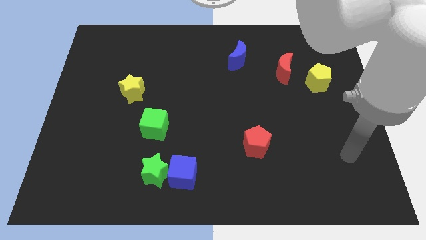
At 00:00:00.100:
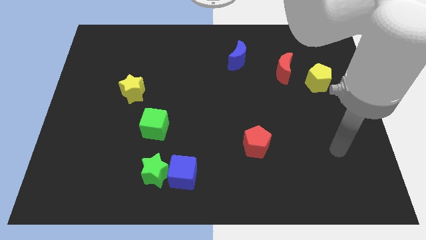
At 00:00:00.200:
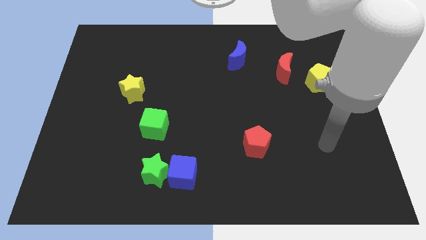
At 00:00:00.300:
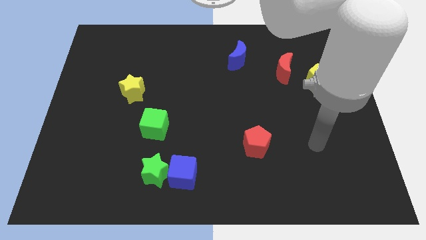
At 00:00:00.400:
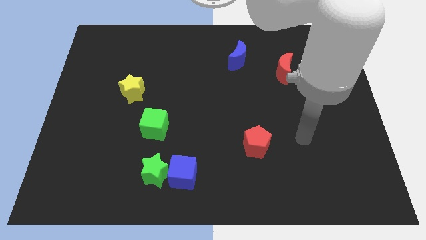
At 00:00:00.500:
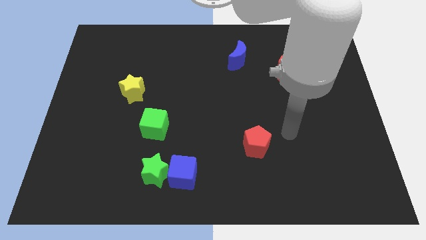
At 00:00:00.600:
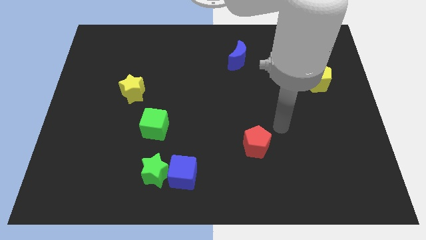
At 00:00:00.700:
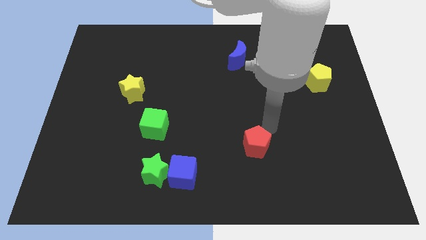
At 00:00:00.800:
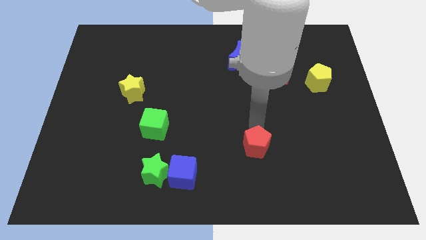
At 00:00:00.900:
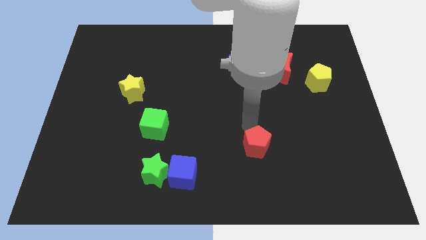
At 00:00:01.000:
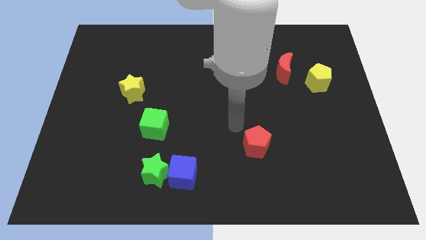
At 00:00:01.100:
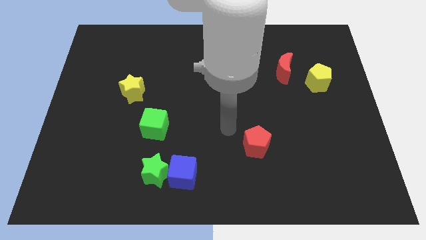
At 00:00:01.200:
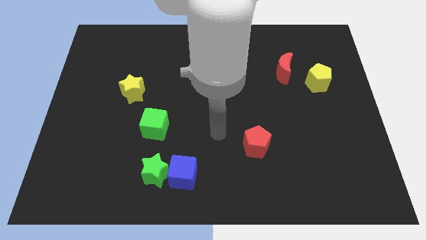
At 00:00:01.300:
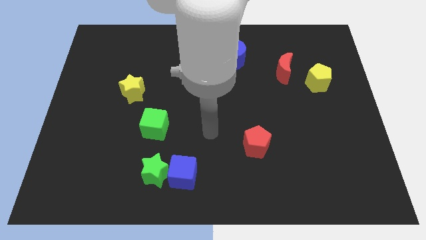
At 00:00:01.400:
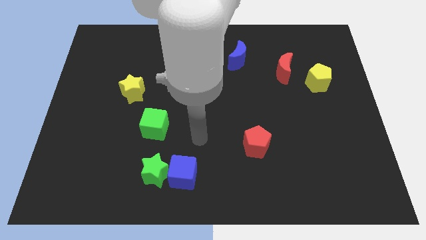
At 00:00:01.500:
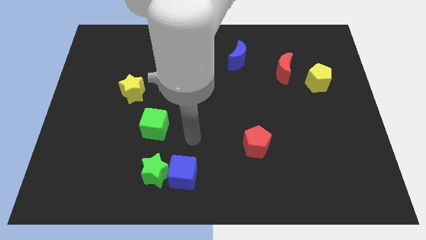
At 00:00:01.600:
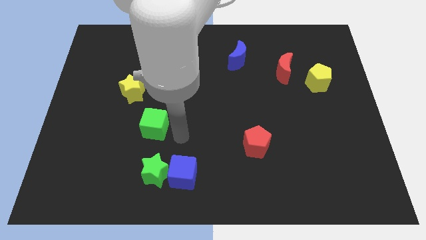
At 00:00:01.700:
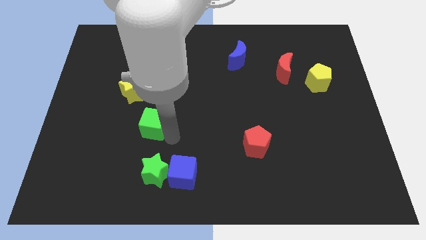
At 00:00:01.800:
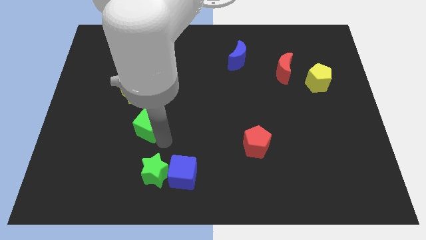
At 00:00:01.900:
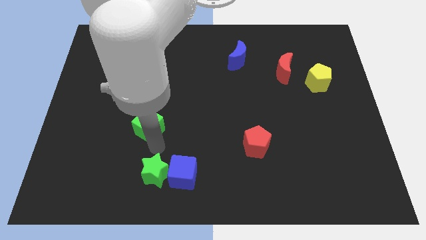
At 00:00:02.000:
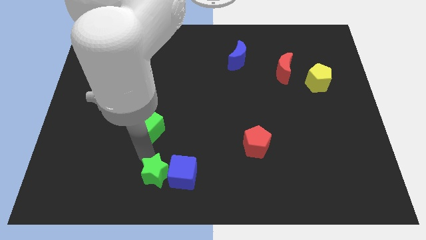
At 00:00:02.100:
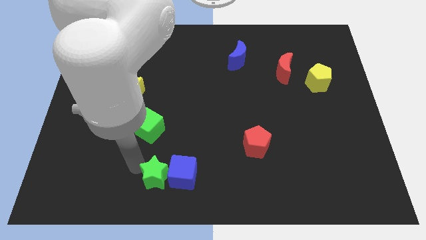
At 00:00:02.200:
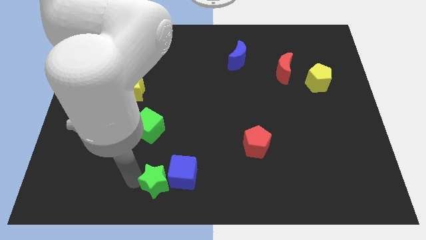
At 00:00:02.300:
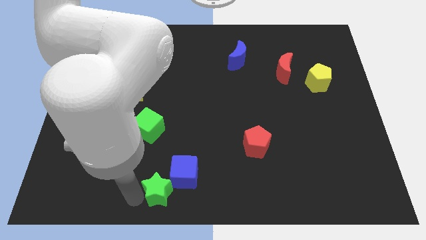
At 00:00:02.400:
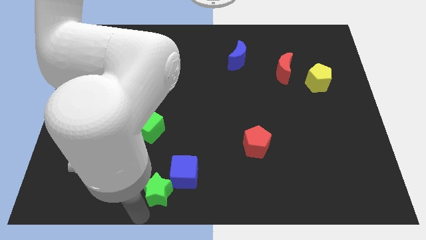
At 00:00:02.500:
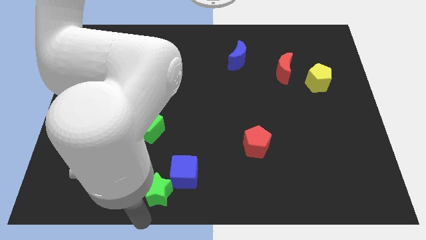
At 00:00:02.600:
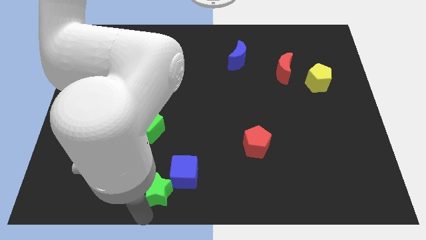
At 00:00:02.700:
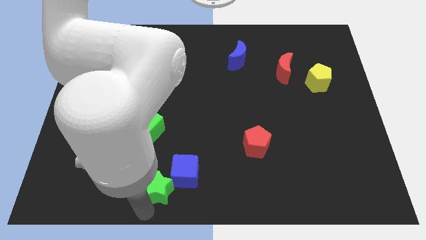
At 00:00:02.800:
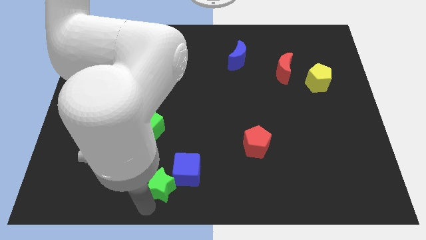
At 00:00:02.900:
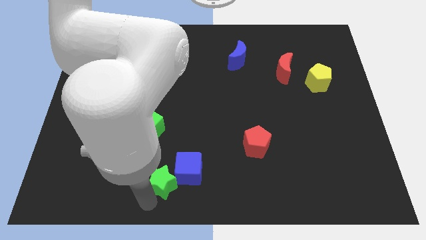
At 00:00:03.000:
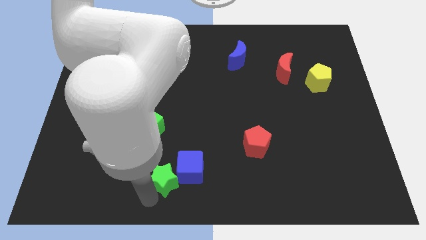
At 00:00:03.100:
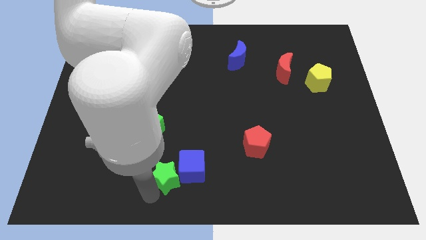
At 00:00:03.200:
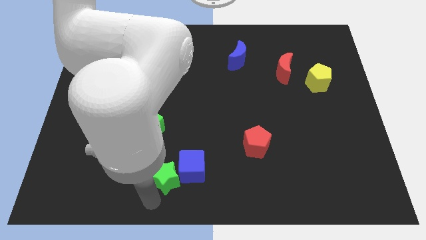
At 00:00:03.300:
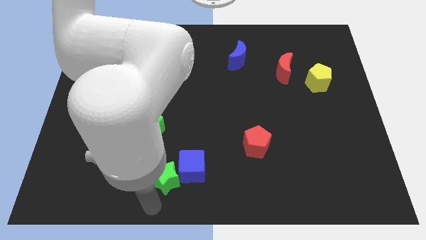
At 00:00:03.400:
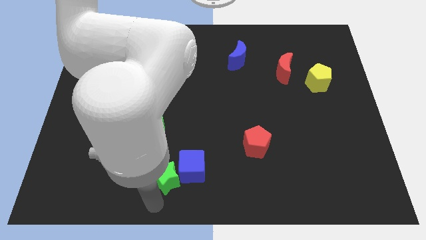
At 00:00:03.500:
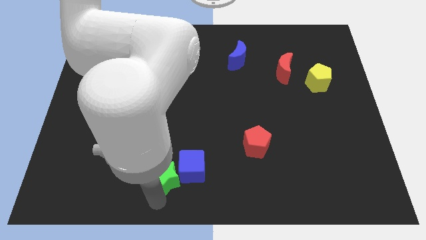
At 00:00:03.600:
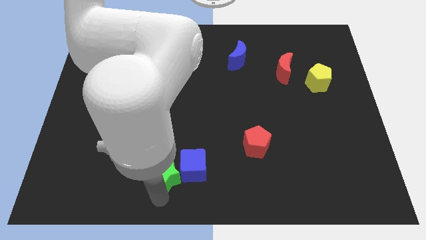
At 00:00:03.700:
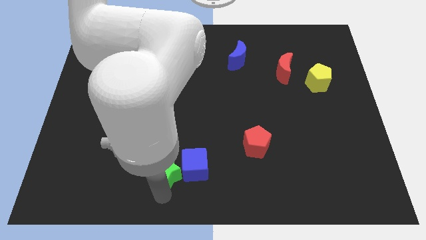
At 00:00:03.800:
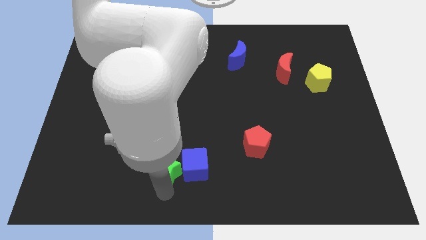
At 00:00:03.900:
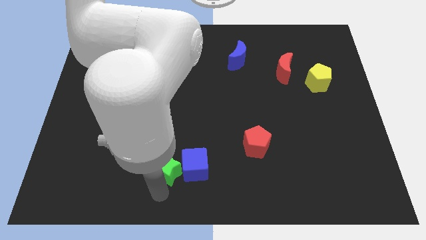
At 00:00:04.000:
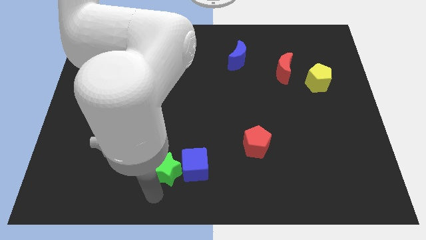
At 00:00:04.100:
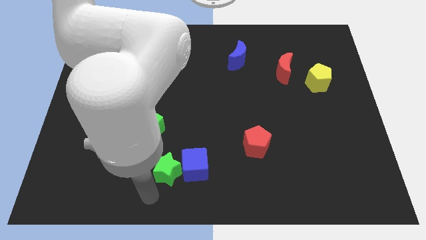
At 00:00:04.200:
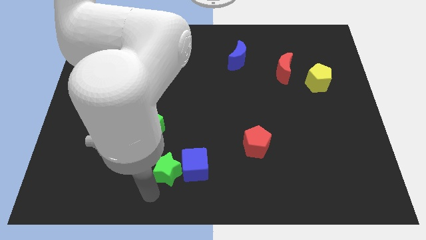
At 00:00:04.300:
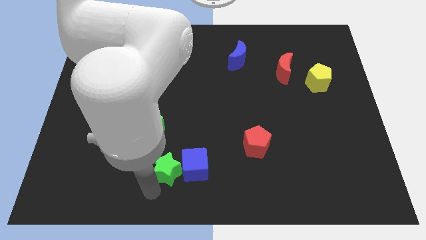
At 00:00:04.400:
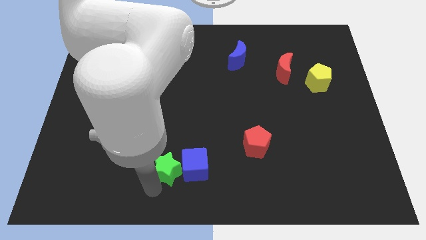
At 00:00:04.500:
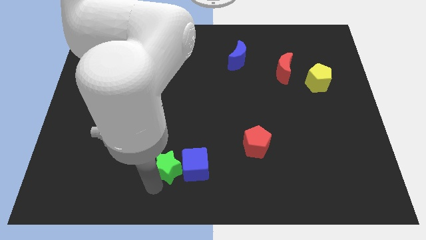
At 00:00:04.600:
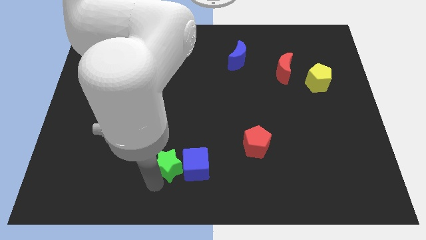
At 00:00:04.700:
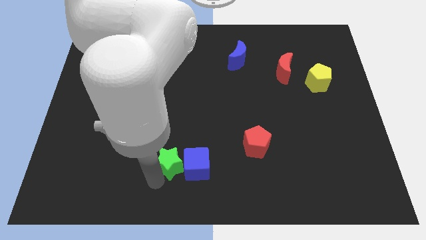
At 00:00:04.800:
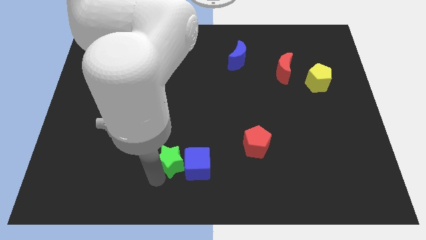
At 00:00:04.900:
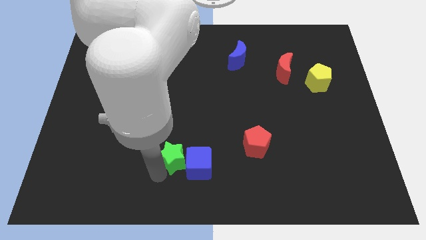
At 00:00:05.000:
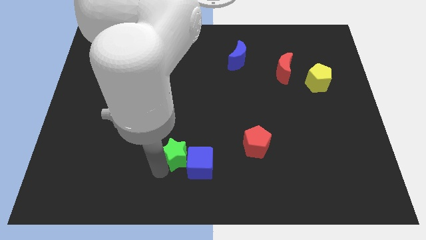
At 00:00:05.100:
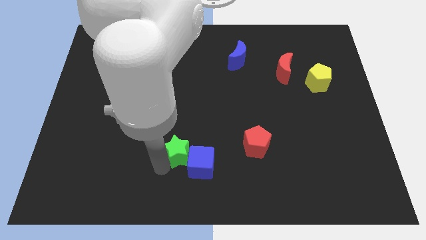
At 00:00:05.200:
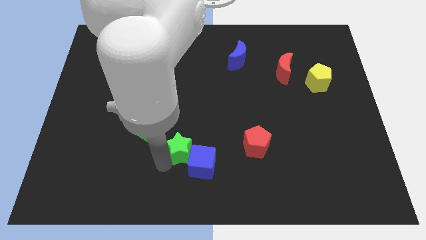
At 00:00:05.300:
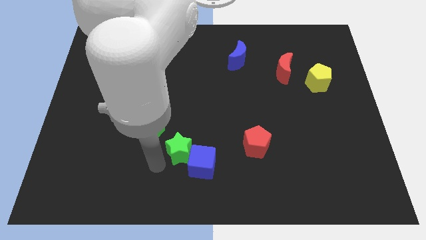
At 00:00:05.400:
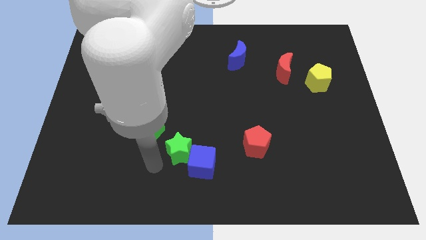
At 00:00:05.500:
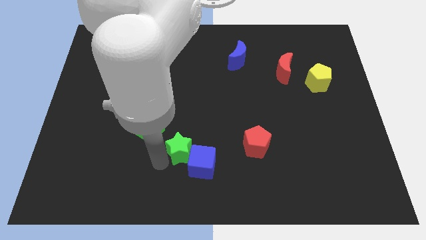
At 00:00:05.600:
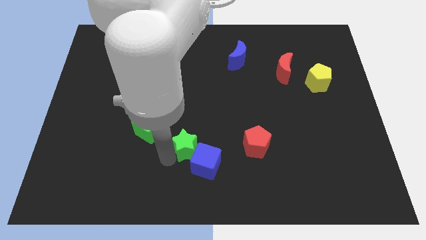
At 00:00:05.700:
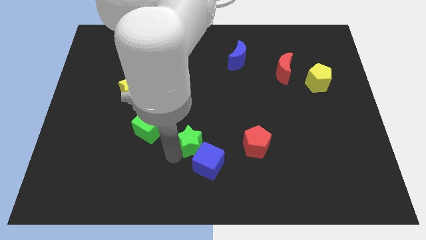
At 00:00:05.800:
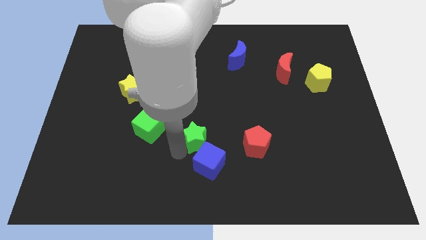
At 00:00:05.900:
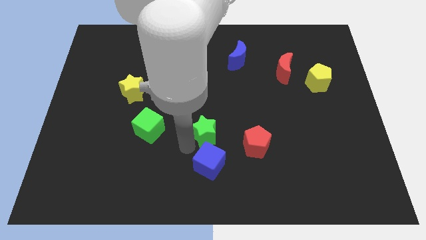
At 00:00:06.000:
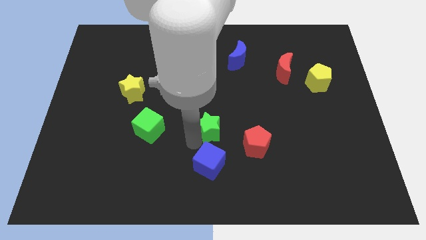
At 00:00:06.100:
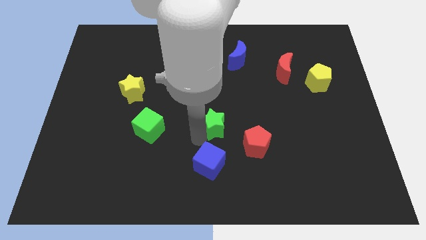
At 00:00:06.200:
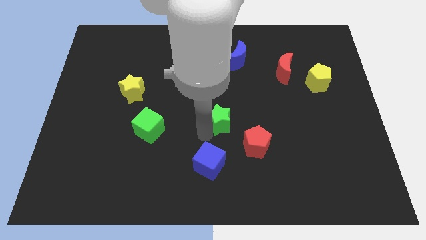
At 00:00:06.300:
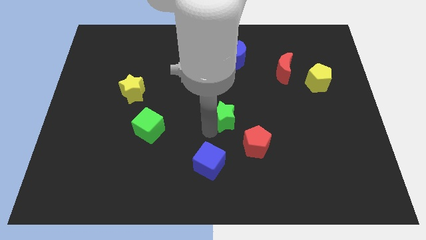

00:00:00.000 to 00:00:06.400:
move the green star diagonally up and right

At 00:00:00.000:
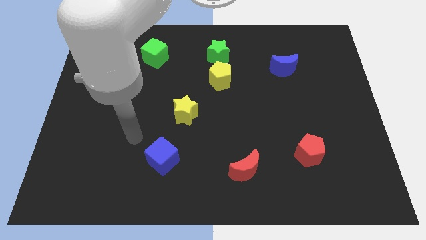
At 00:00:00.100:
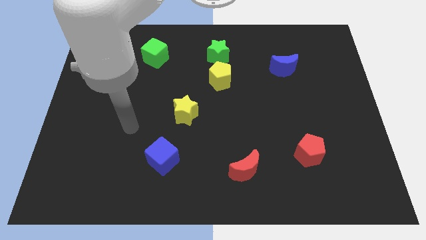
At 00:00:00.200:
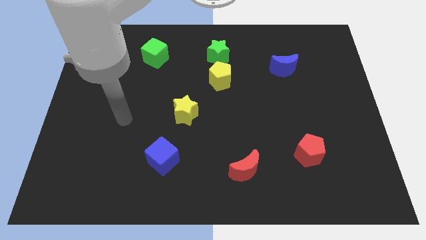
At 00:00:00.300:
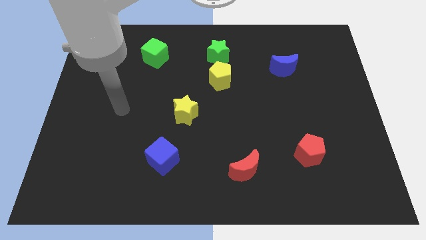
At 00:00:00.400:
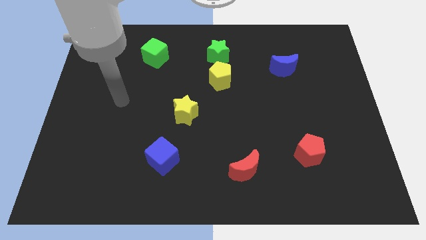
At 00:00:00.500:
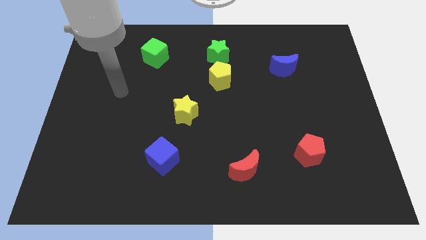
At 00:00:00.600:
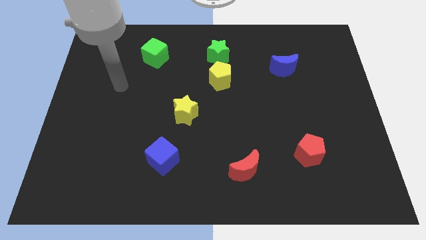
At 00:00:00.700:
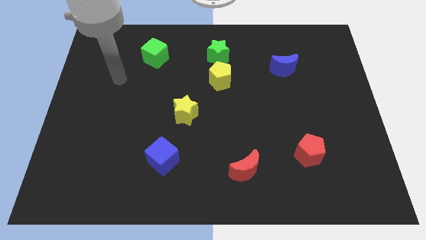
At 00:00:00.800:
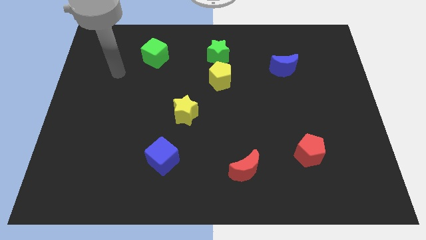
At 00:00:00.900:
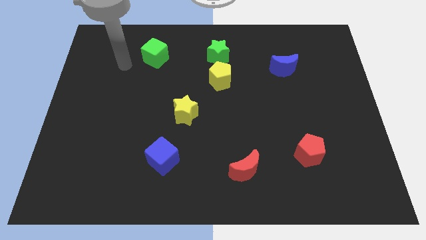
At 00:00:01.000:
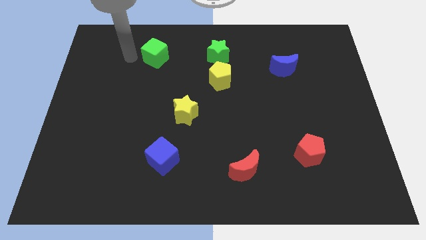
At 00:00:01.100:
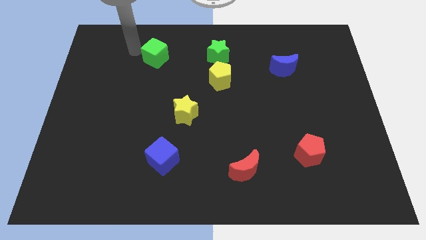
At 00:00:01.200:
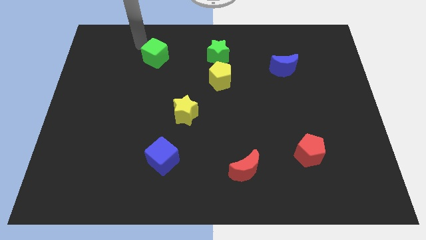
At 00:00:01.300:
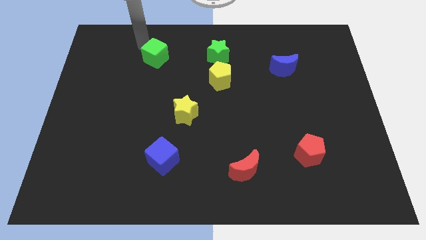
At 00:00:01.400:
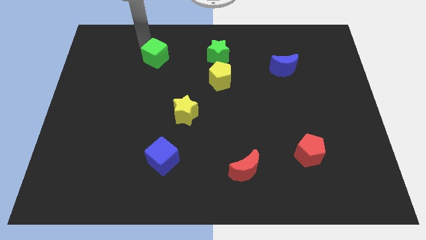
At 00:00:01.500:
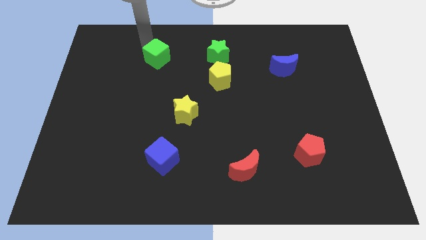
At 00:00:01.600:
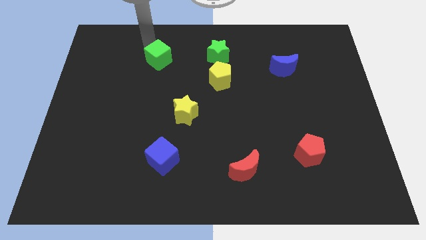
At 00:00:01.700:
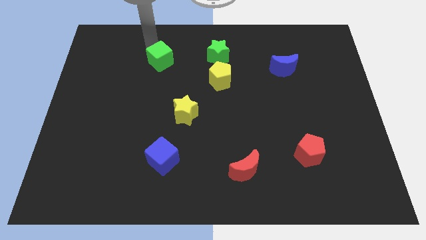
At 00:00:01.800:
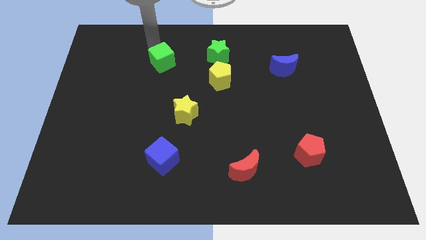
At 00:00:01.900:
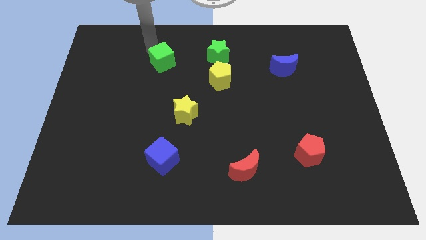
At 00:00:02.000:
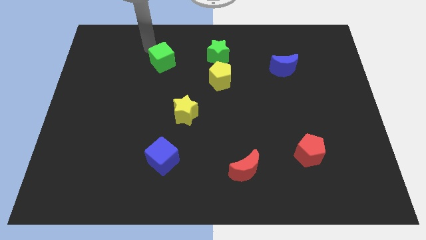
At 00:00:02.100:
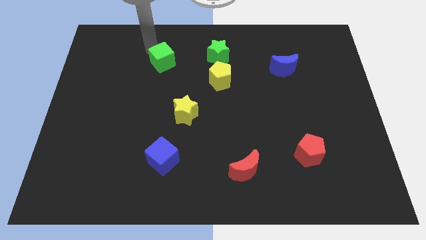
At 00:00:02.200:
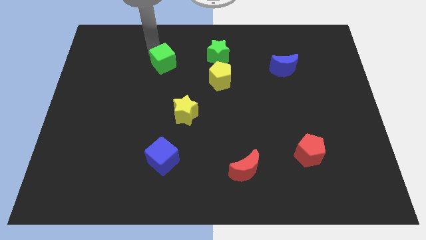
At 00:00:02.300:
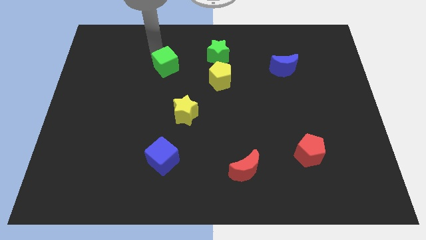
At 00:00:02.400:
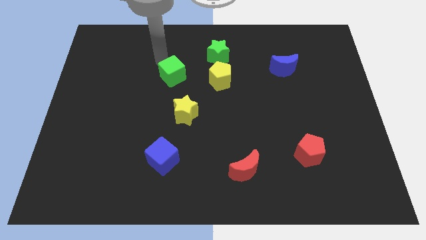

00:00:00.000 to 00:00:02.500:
slightly move the green cube downwards and to the right diagonally
